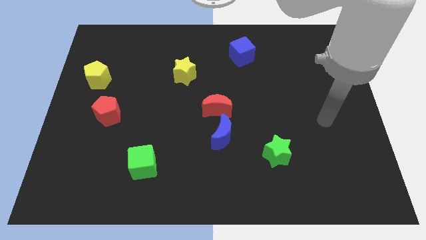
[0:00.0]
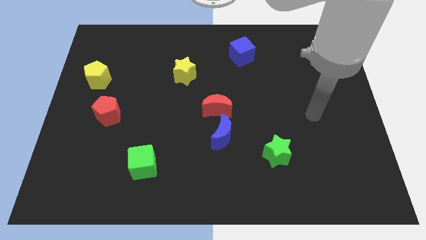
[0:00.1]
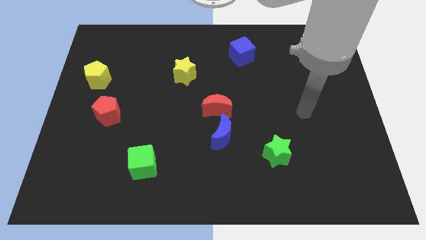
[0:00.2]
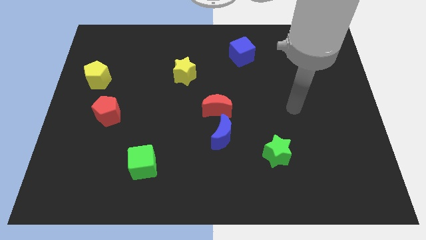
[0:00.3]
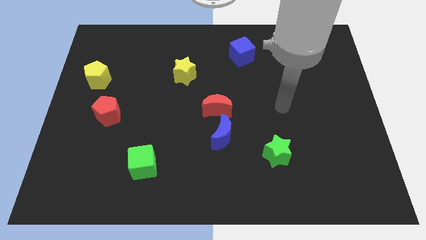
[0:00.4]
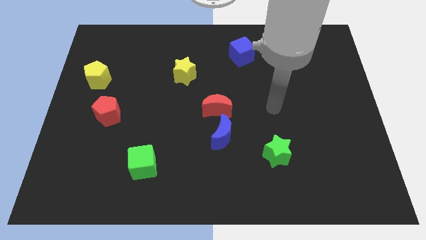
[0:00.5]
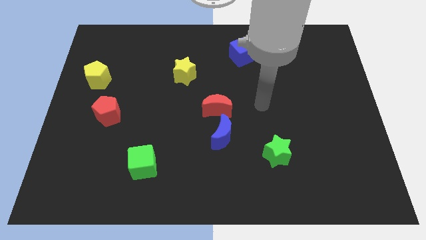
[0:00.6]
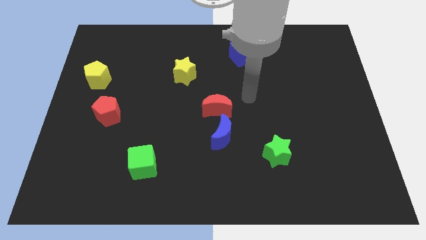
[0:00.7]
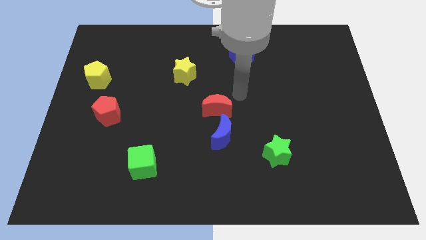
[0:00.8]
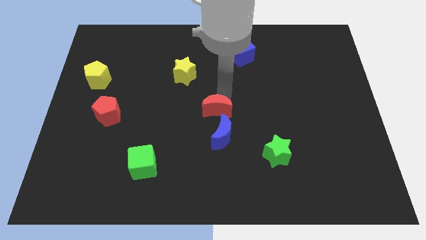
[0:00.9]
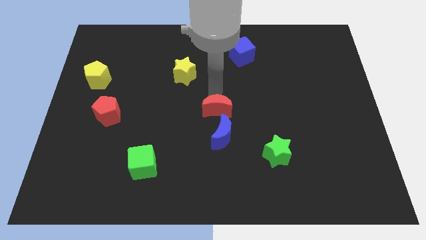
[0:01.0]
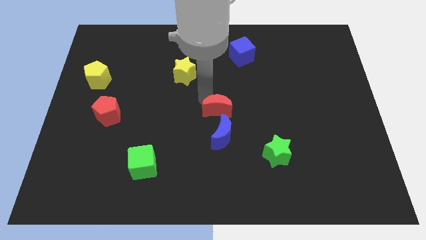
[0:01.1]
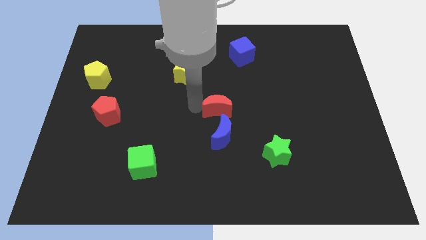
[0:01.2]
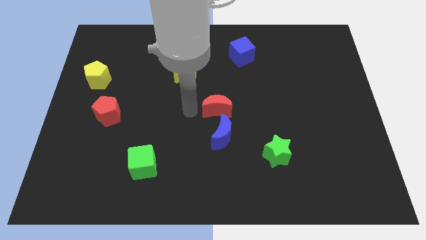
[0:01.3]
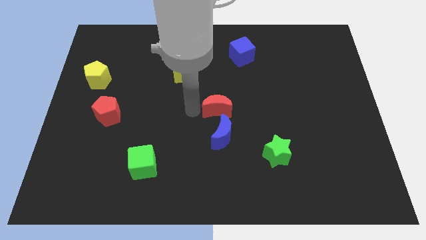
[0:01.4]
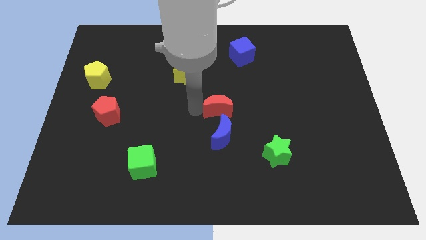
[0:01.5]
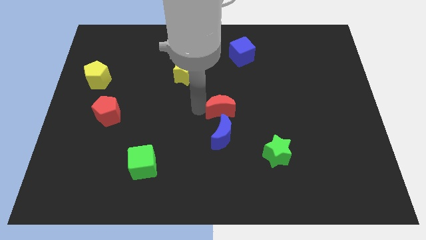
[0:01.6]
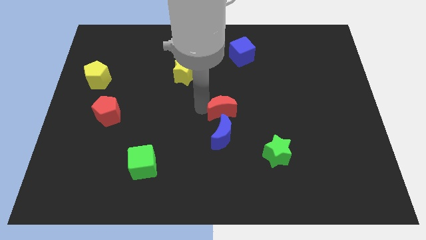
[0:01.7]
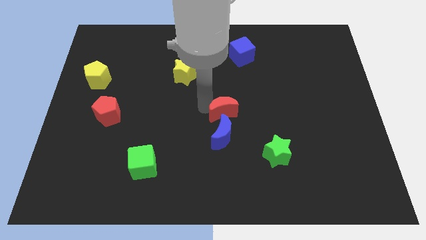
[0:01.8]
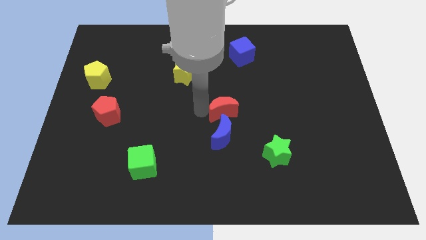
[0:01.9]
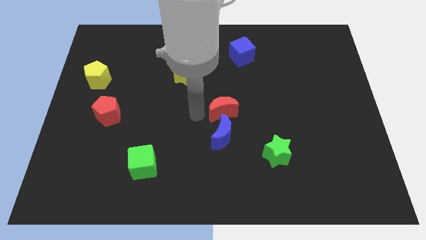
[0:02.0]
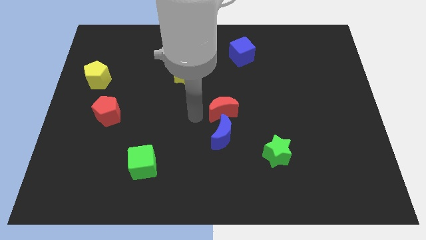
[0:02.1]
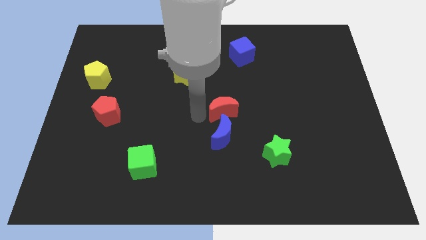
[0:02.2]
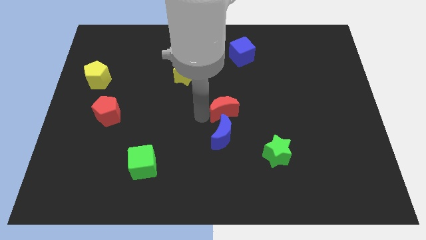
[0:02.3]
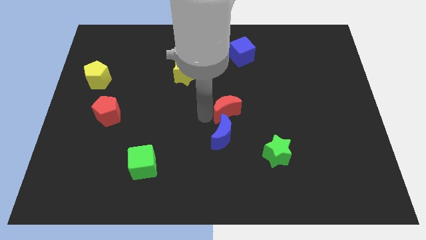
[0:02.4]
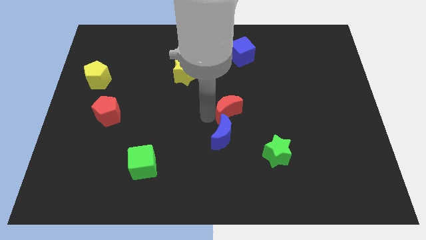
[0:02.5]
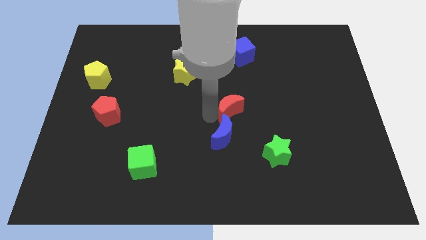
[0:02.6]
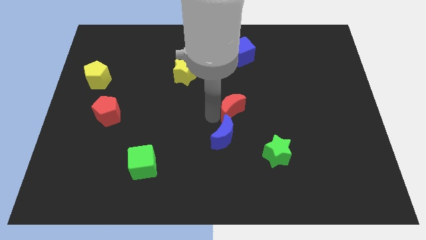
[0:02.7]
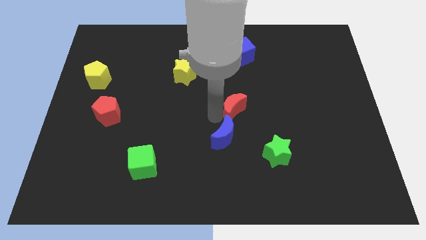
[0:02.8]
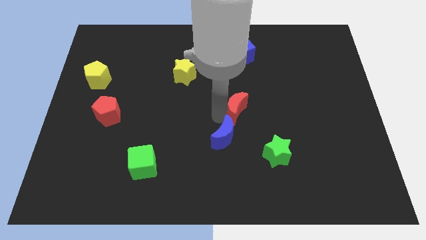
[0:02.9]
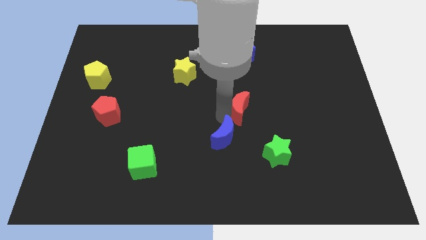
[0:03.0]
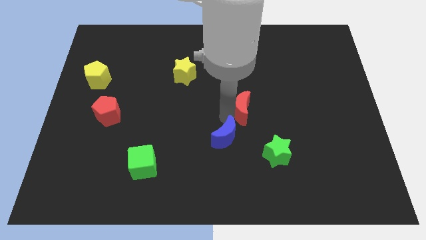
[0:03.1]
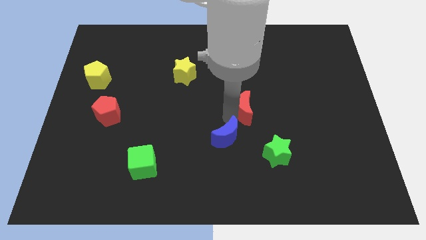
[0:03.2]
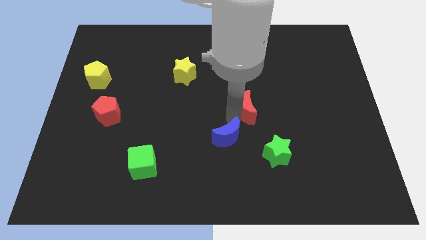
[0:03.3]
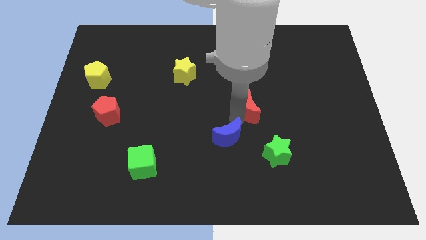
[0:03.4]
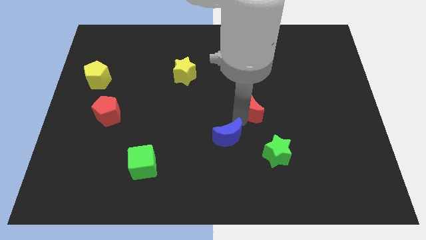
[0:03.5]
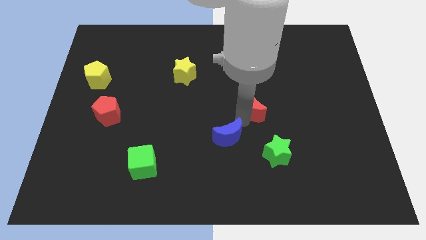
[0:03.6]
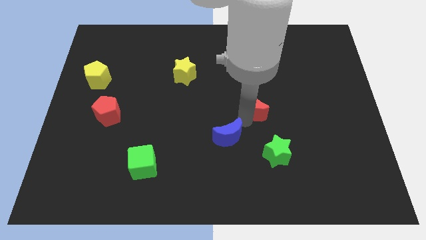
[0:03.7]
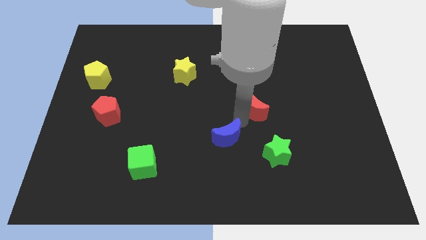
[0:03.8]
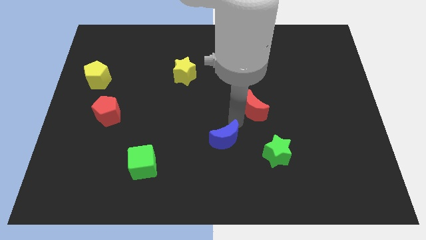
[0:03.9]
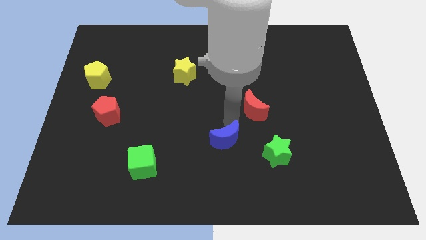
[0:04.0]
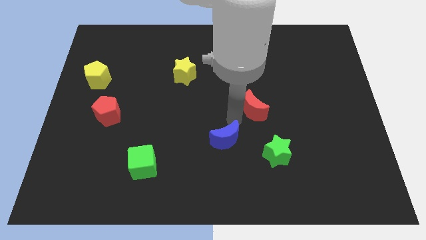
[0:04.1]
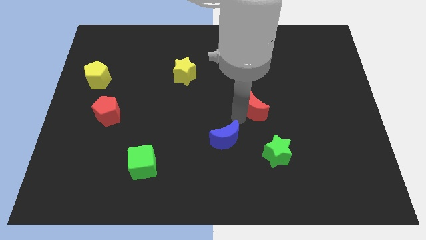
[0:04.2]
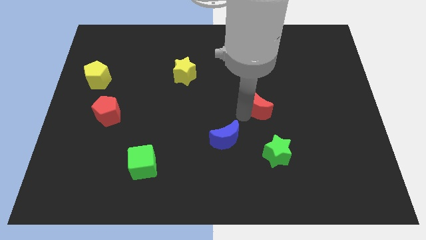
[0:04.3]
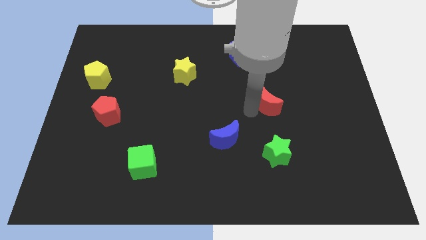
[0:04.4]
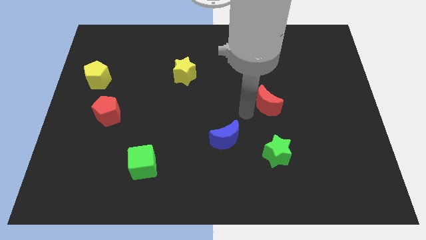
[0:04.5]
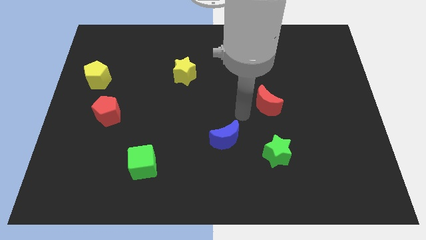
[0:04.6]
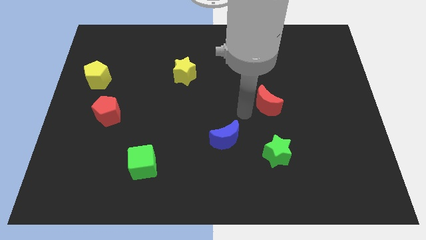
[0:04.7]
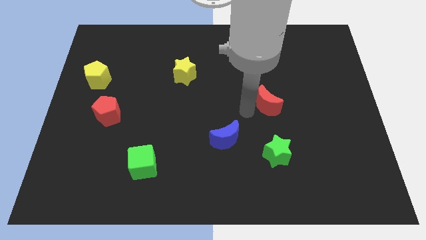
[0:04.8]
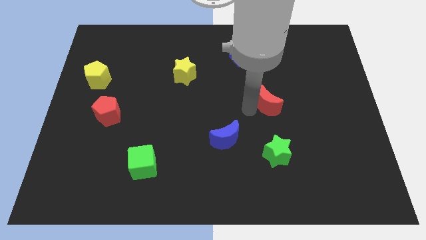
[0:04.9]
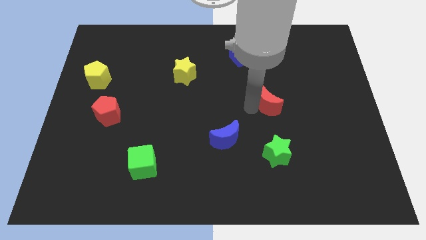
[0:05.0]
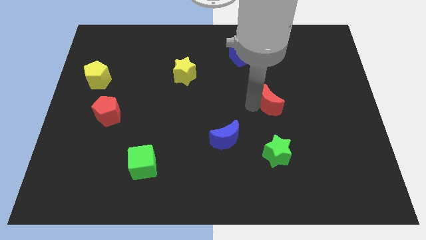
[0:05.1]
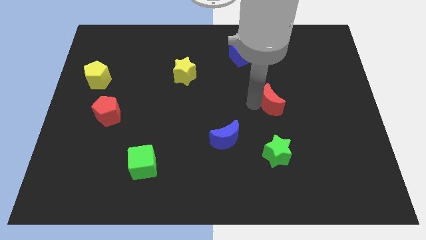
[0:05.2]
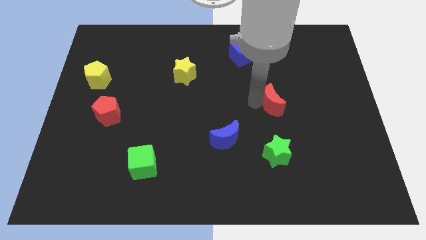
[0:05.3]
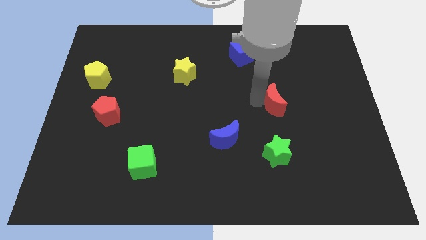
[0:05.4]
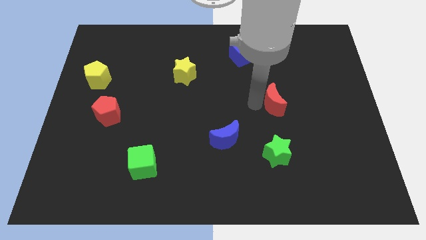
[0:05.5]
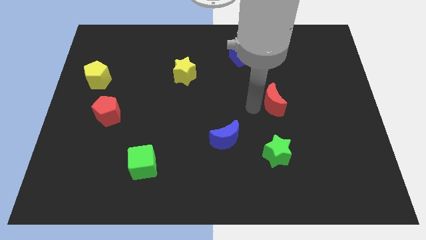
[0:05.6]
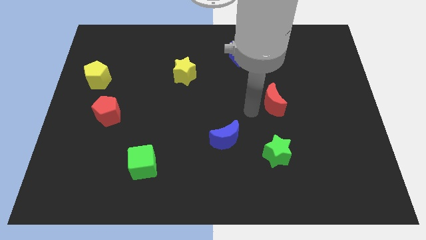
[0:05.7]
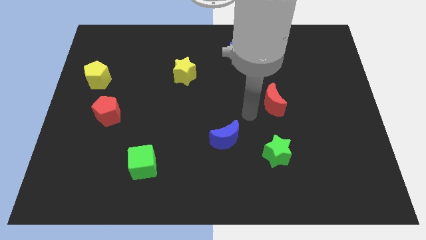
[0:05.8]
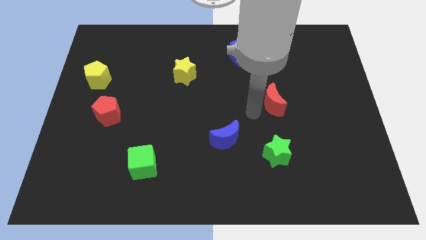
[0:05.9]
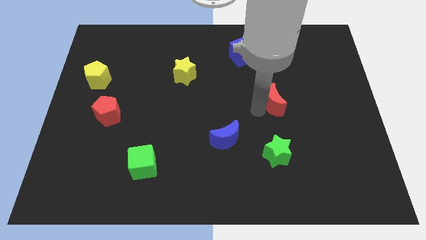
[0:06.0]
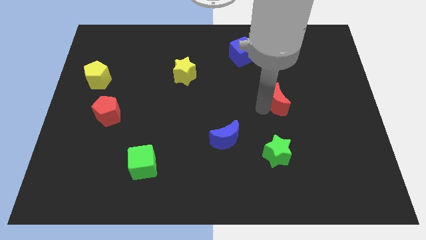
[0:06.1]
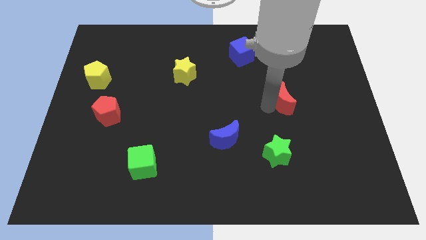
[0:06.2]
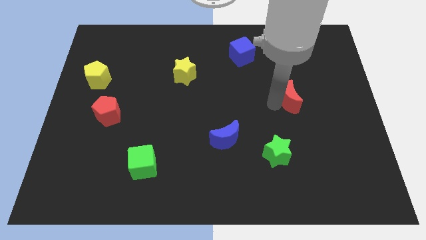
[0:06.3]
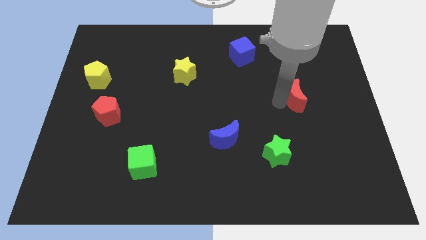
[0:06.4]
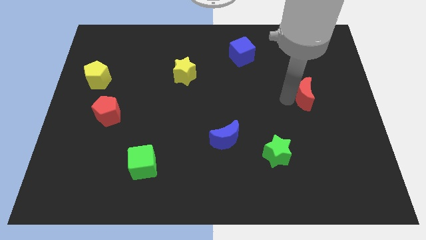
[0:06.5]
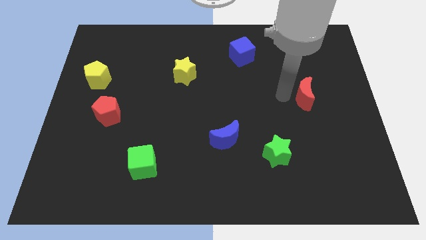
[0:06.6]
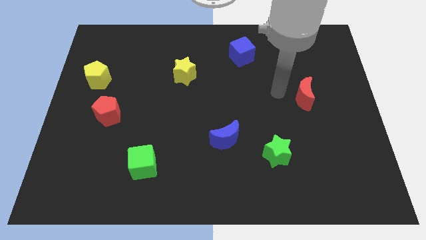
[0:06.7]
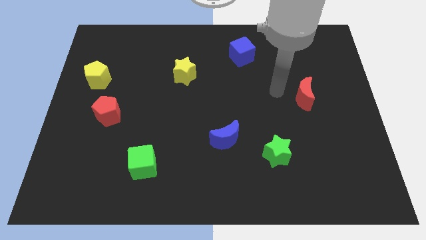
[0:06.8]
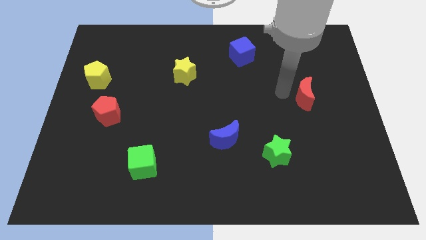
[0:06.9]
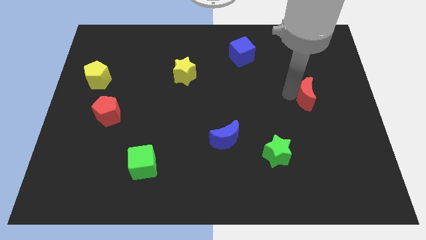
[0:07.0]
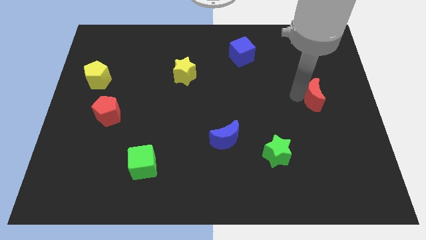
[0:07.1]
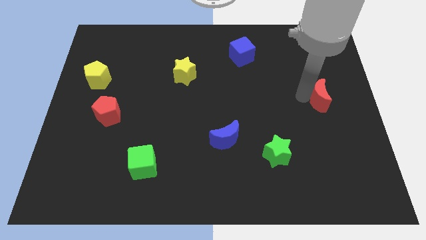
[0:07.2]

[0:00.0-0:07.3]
put the red moon to the center right
